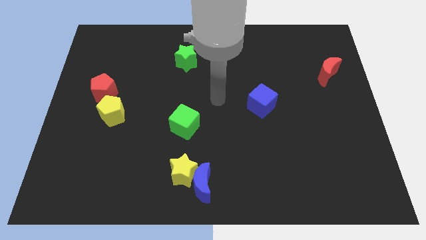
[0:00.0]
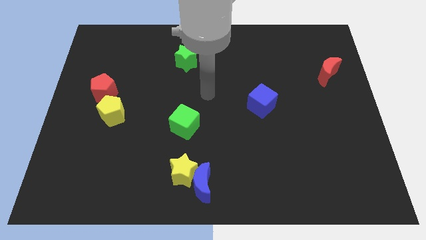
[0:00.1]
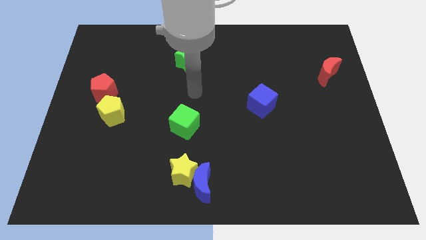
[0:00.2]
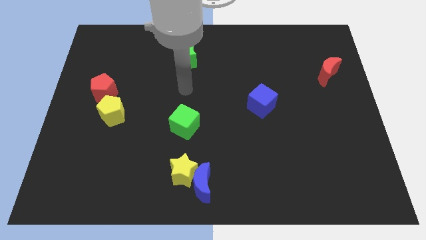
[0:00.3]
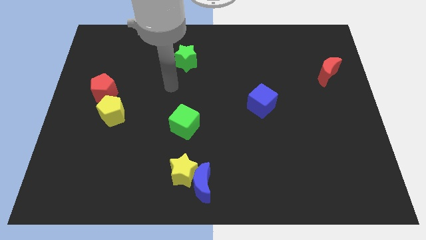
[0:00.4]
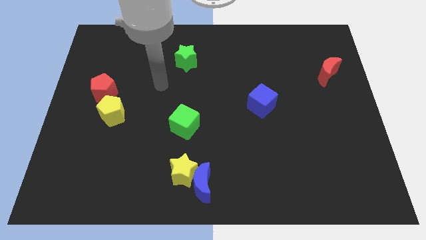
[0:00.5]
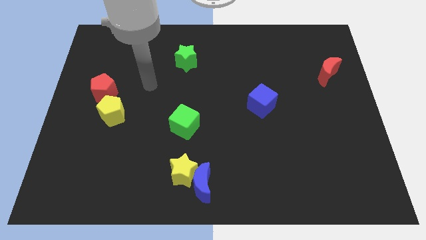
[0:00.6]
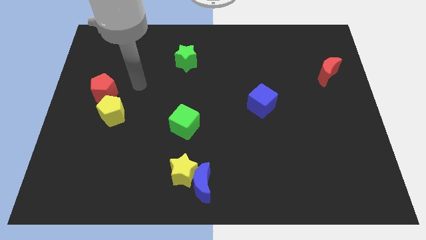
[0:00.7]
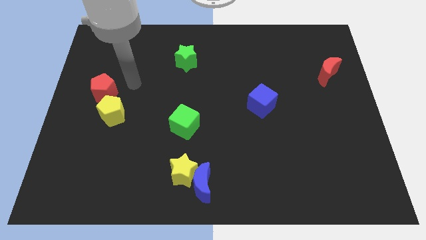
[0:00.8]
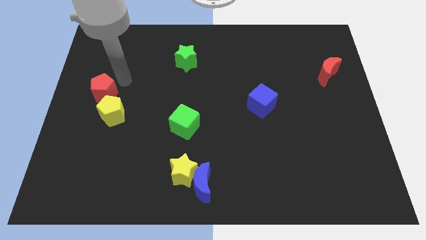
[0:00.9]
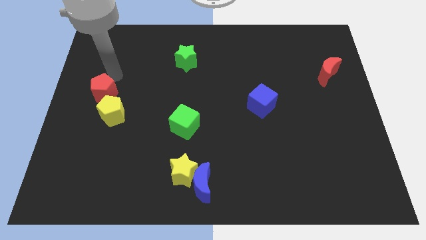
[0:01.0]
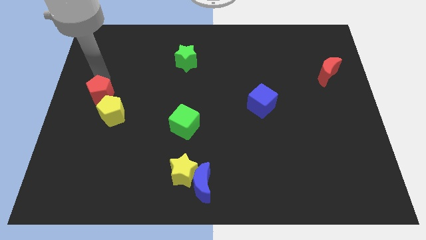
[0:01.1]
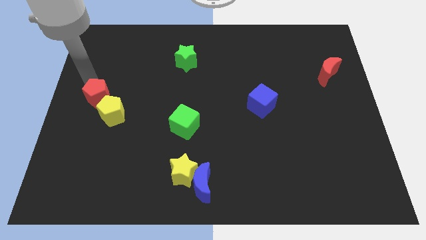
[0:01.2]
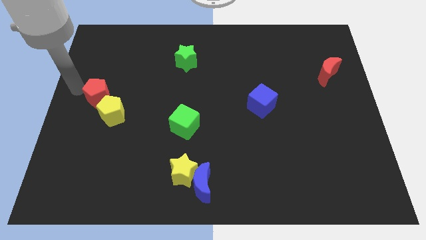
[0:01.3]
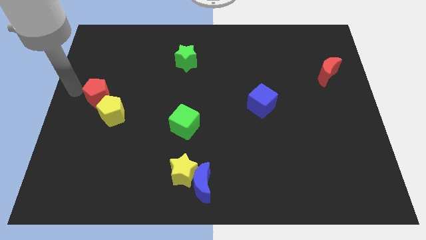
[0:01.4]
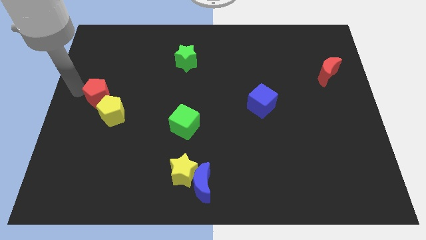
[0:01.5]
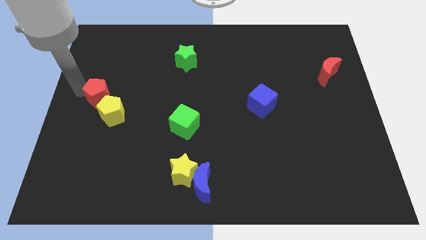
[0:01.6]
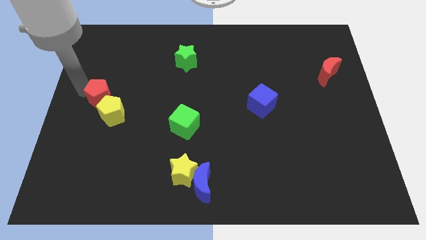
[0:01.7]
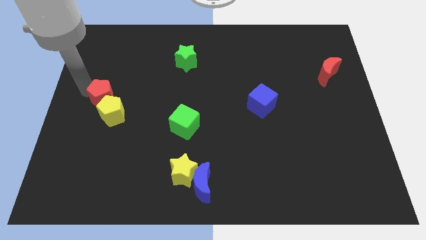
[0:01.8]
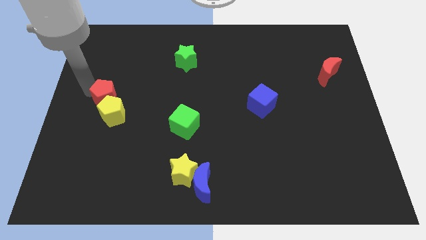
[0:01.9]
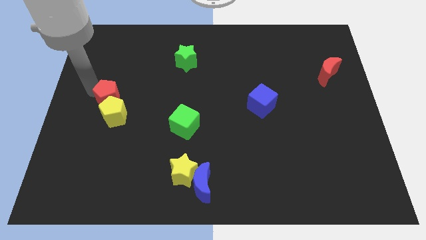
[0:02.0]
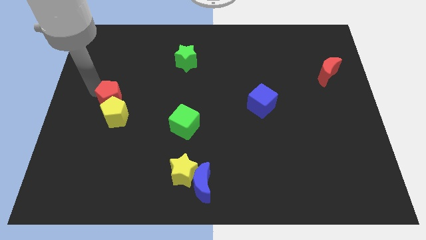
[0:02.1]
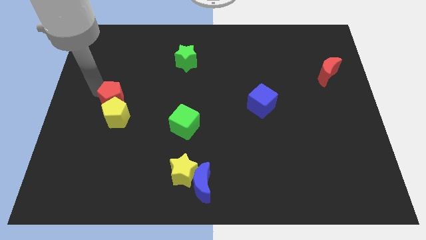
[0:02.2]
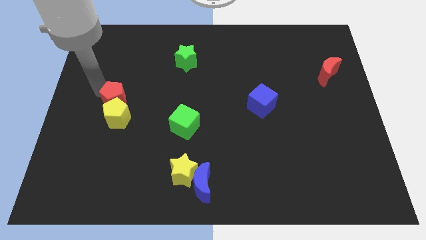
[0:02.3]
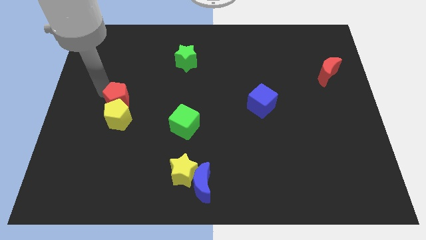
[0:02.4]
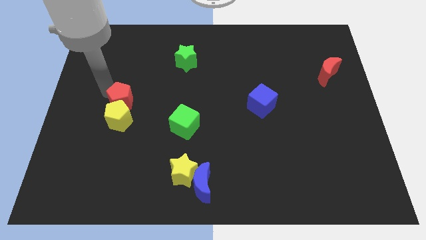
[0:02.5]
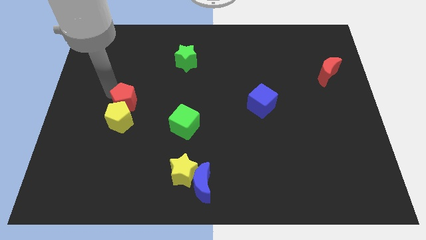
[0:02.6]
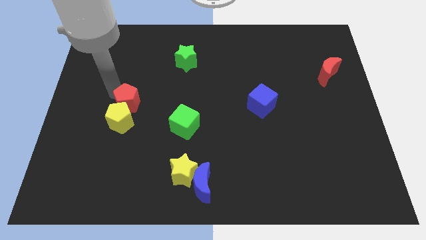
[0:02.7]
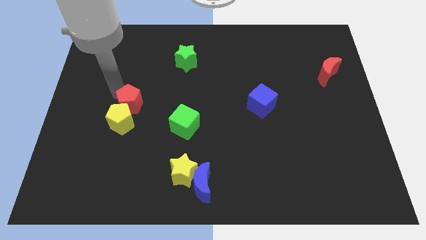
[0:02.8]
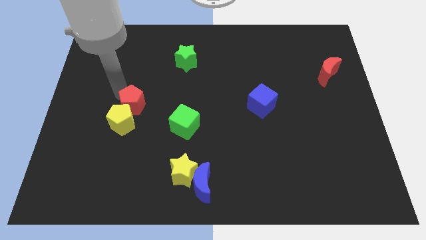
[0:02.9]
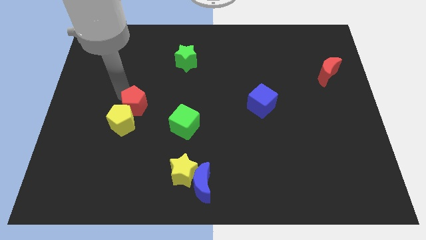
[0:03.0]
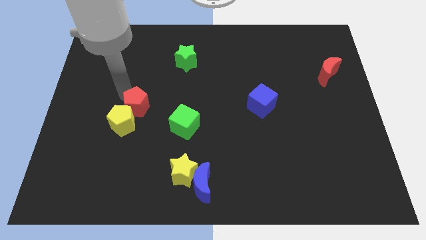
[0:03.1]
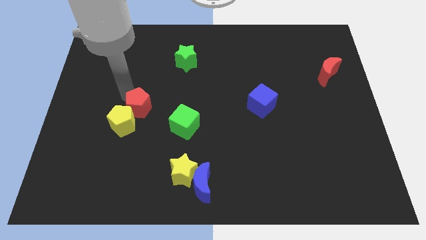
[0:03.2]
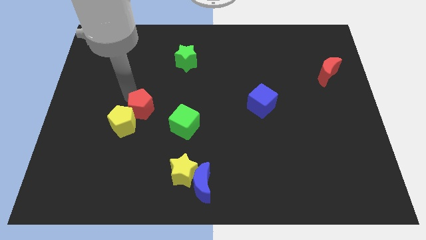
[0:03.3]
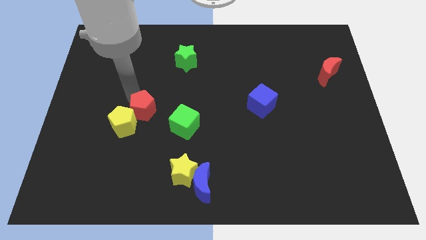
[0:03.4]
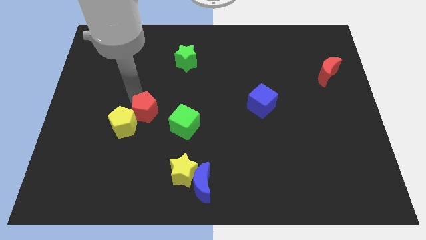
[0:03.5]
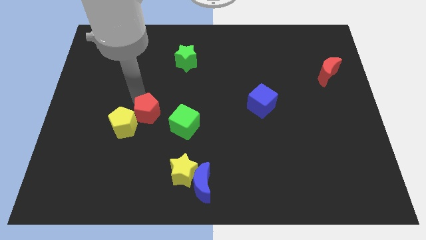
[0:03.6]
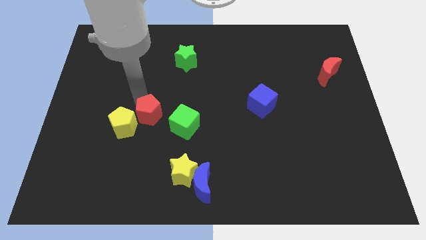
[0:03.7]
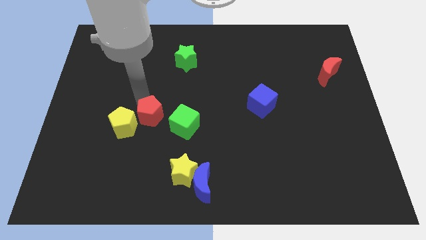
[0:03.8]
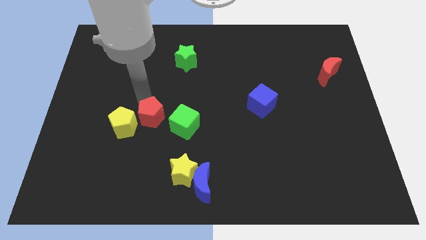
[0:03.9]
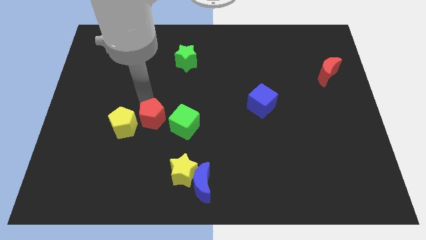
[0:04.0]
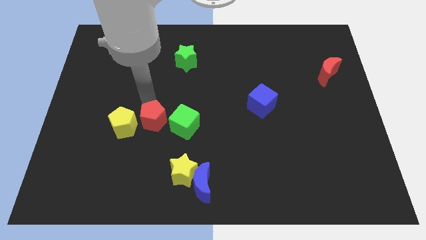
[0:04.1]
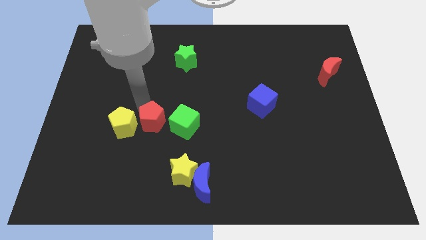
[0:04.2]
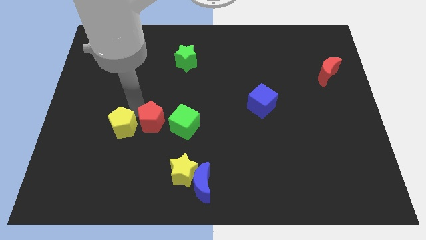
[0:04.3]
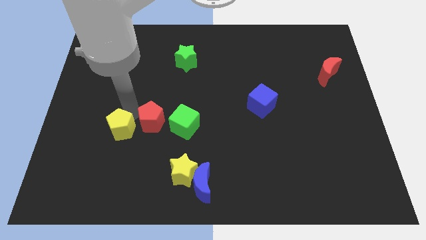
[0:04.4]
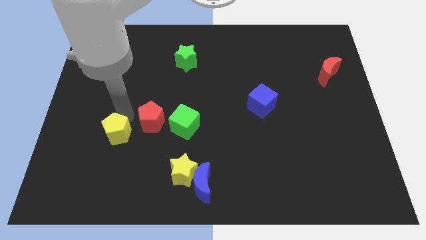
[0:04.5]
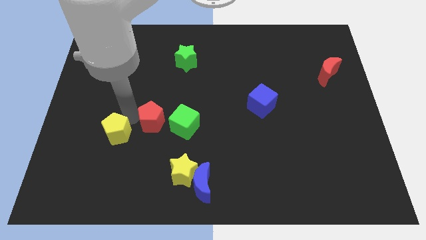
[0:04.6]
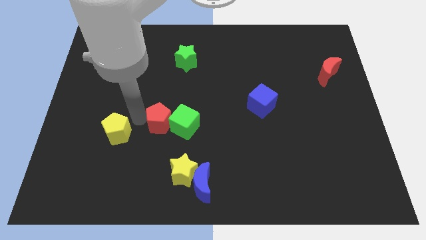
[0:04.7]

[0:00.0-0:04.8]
put the red pentagon towards the green cube

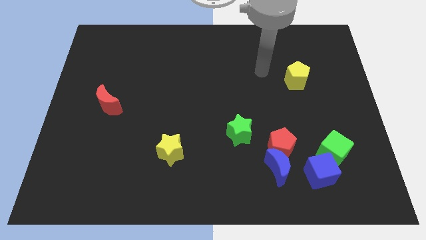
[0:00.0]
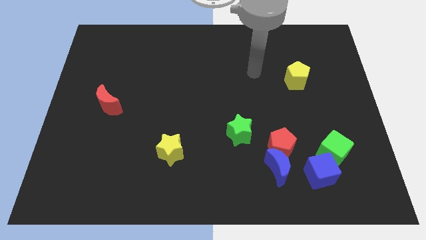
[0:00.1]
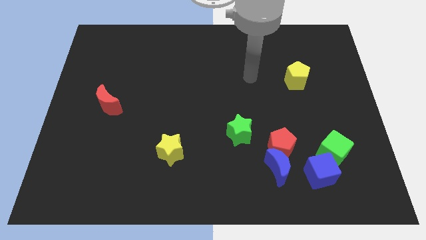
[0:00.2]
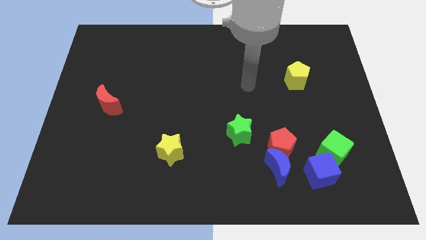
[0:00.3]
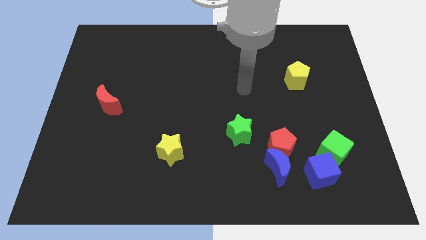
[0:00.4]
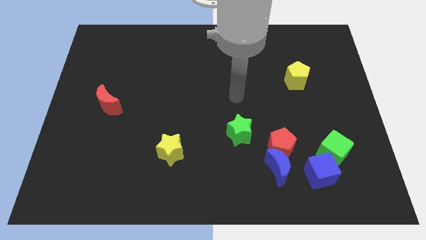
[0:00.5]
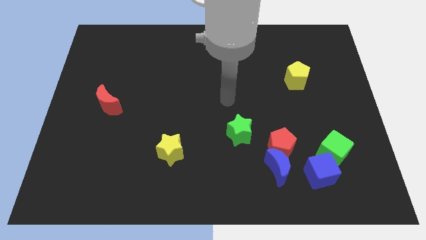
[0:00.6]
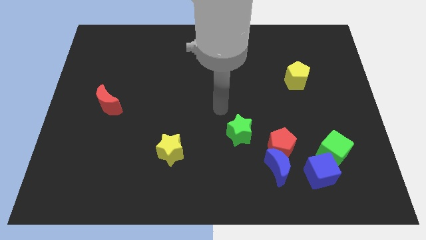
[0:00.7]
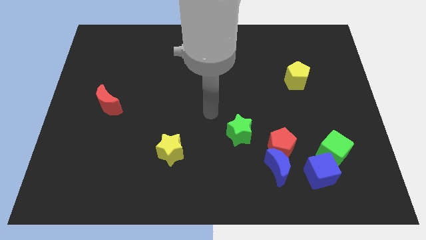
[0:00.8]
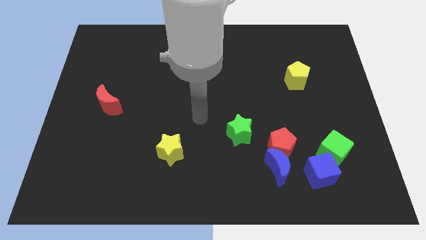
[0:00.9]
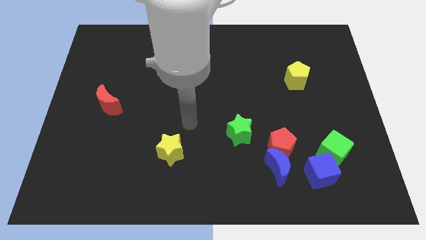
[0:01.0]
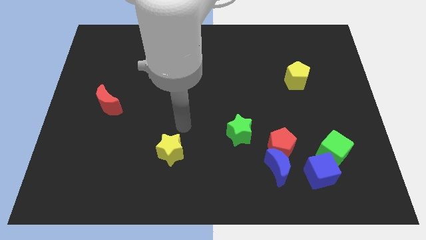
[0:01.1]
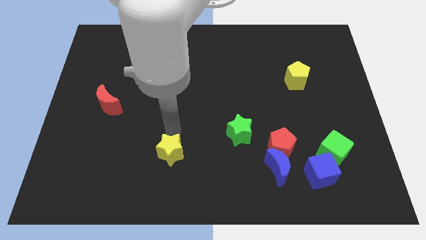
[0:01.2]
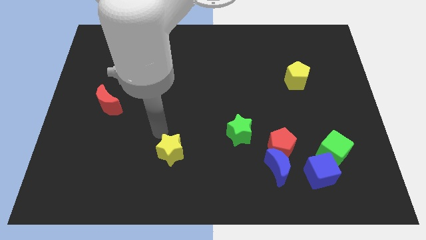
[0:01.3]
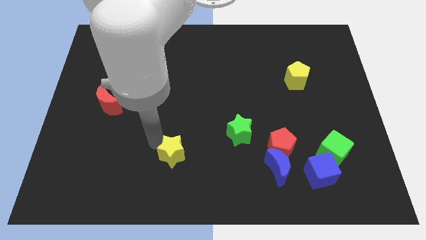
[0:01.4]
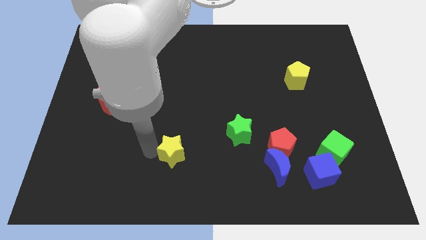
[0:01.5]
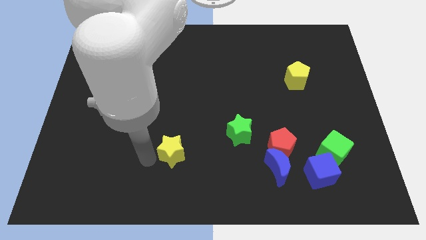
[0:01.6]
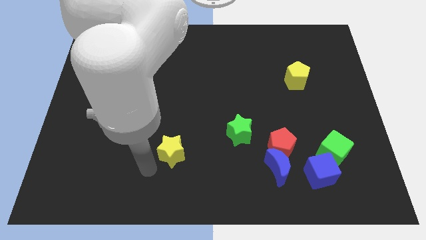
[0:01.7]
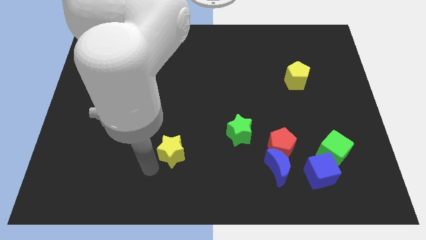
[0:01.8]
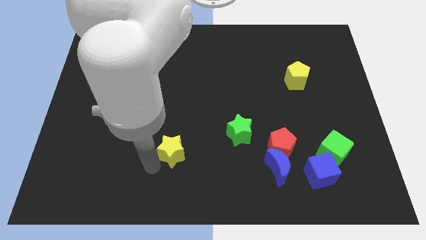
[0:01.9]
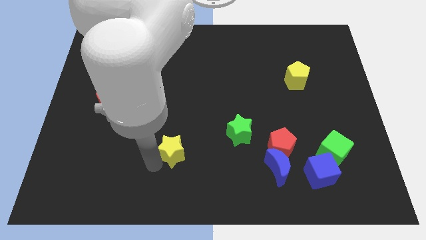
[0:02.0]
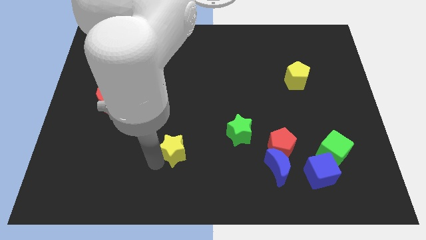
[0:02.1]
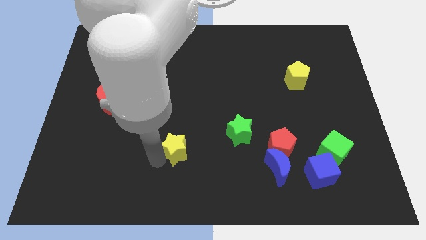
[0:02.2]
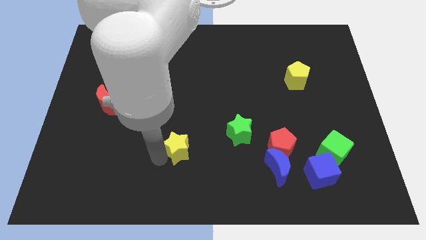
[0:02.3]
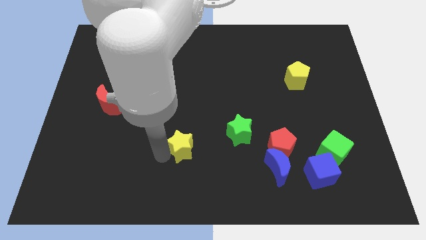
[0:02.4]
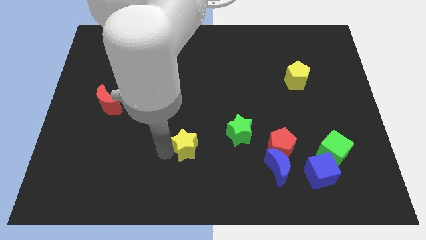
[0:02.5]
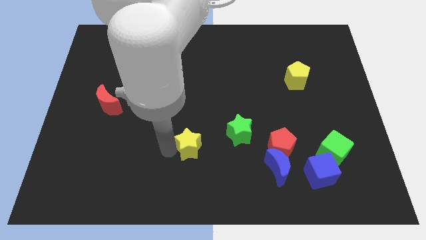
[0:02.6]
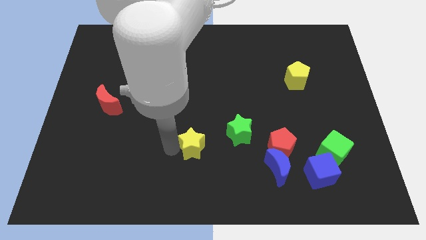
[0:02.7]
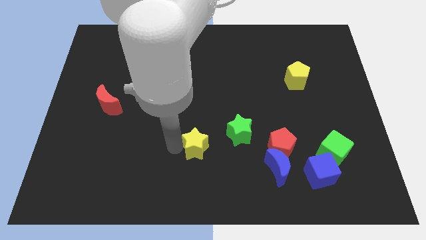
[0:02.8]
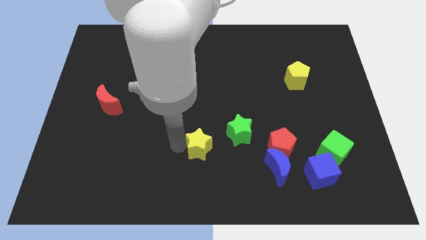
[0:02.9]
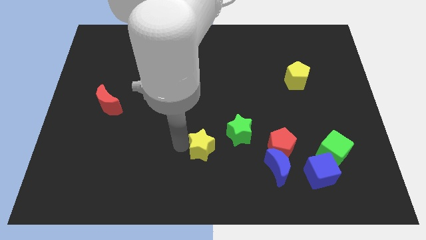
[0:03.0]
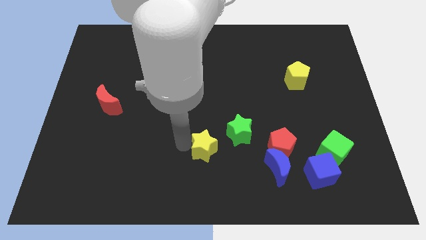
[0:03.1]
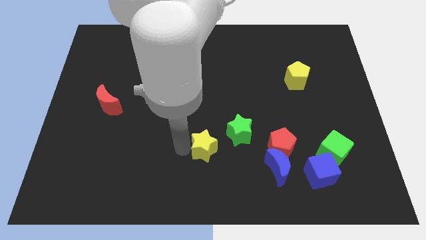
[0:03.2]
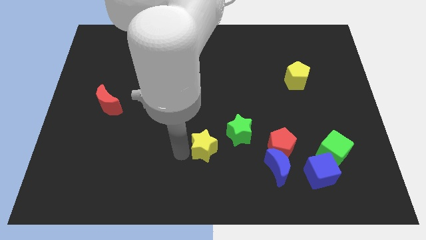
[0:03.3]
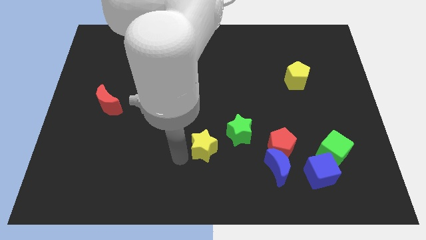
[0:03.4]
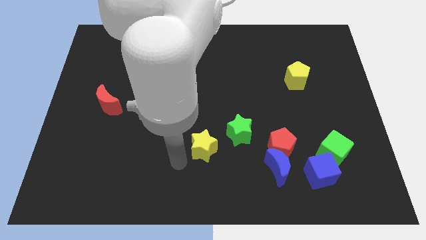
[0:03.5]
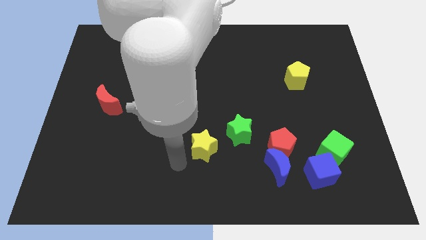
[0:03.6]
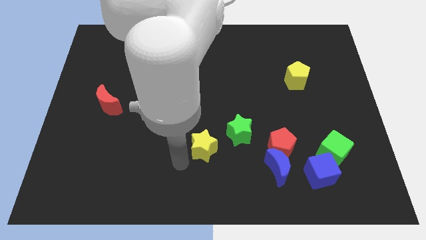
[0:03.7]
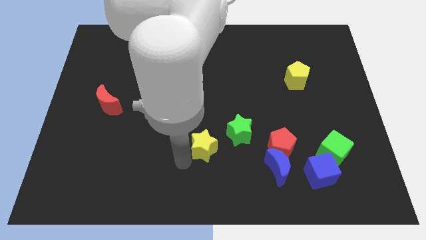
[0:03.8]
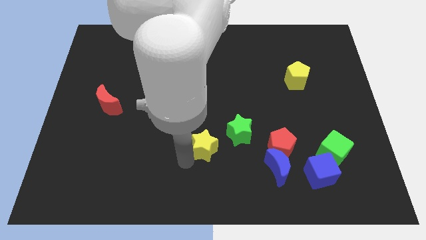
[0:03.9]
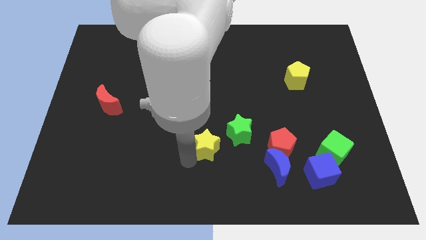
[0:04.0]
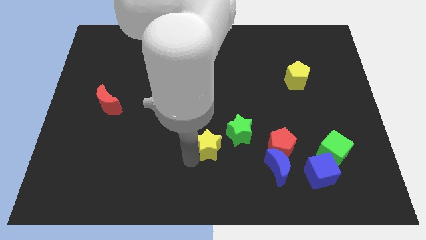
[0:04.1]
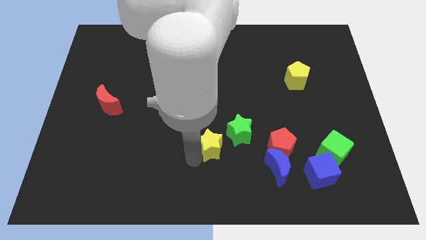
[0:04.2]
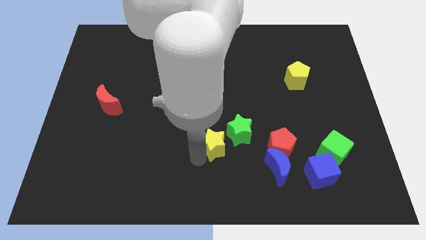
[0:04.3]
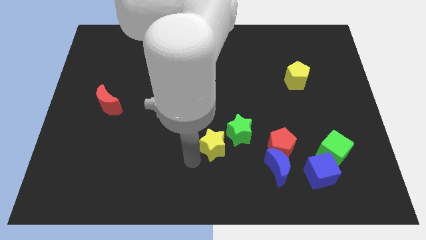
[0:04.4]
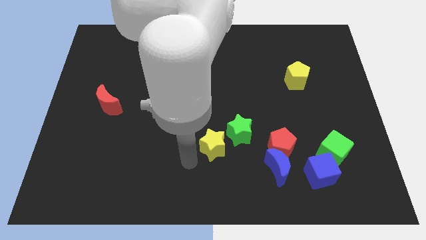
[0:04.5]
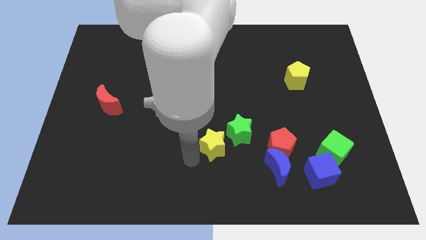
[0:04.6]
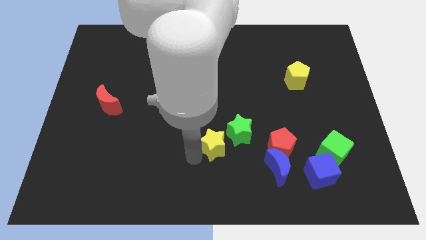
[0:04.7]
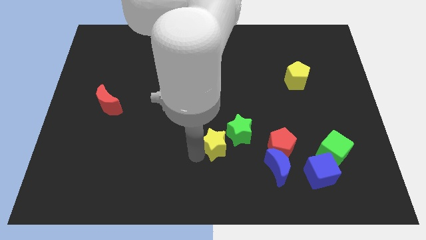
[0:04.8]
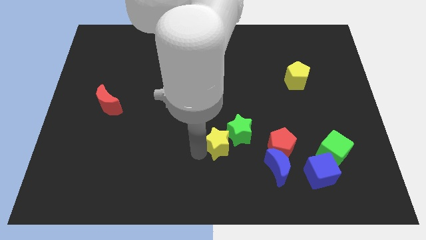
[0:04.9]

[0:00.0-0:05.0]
push the yellow star close to the green star
